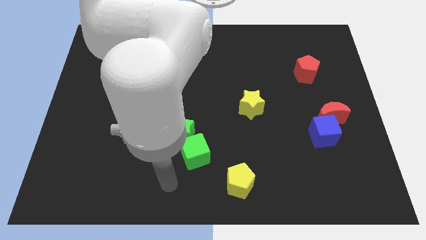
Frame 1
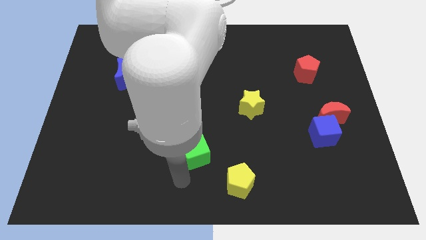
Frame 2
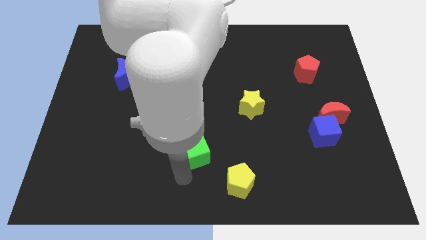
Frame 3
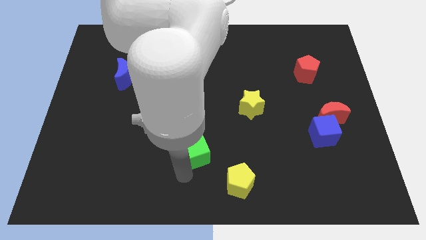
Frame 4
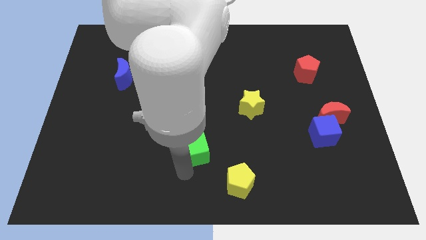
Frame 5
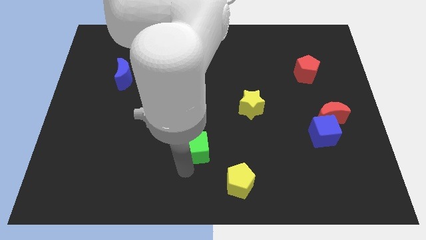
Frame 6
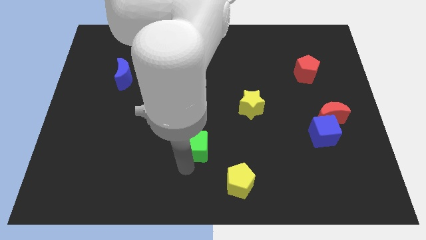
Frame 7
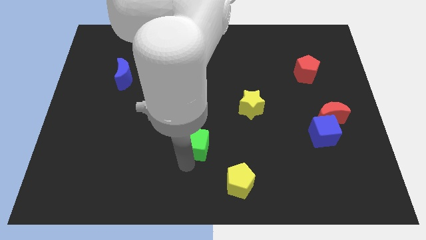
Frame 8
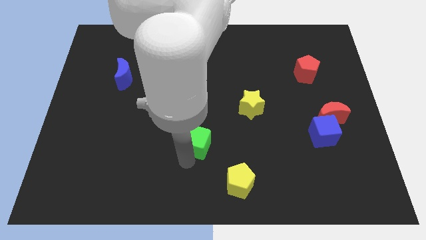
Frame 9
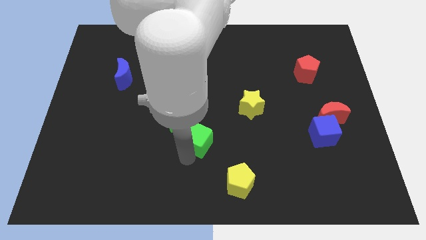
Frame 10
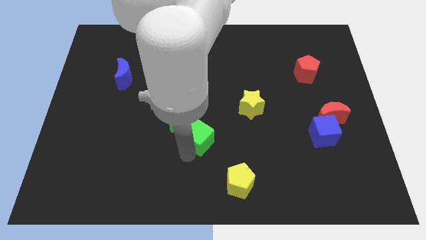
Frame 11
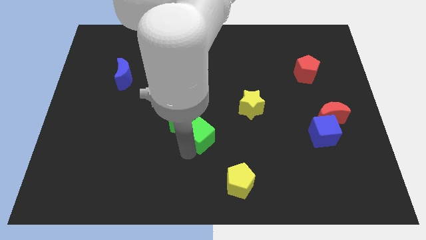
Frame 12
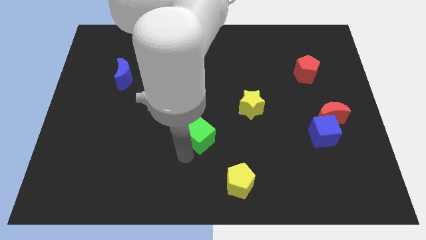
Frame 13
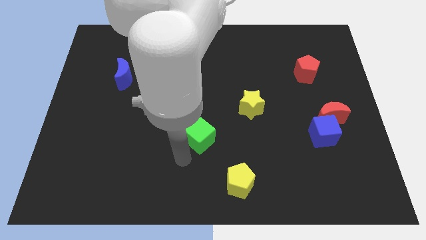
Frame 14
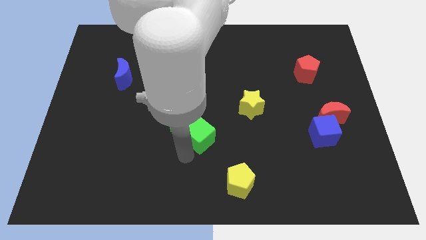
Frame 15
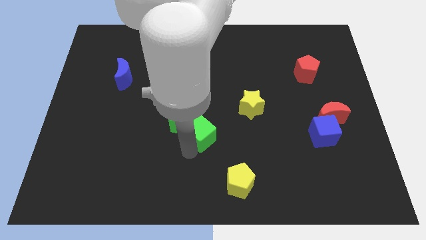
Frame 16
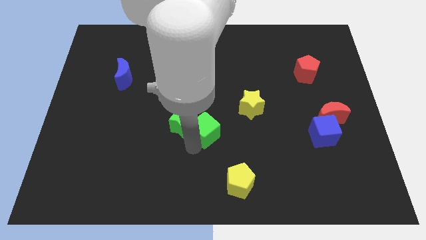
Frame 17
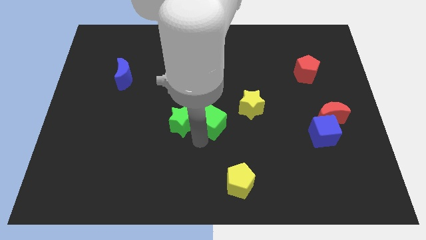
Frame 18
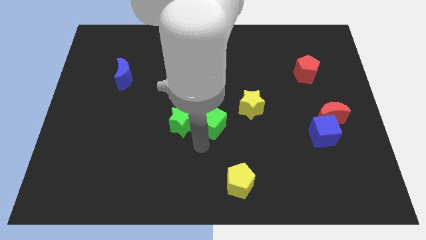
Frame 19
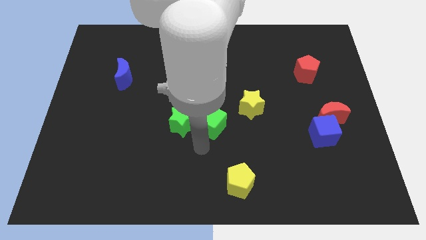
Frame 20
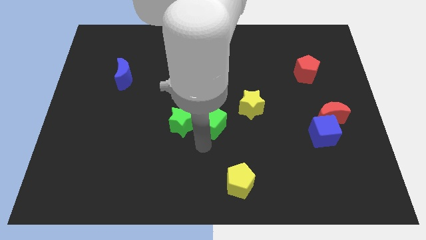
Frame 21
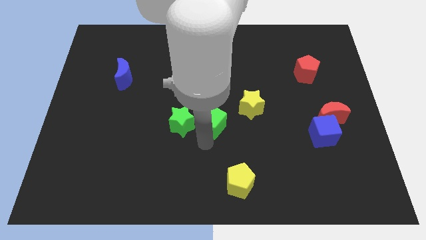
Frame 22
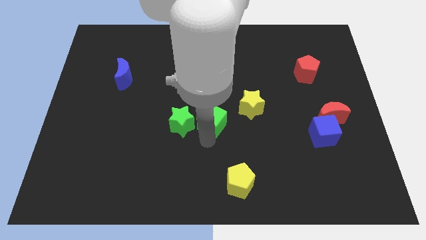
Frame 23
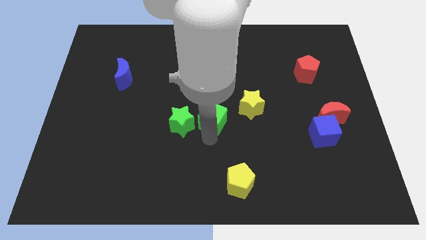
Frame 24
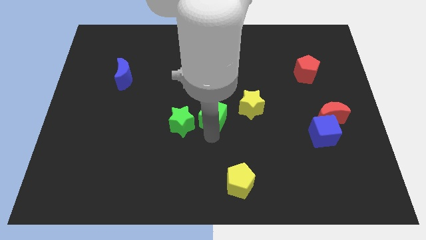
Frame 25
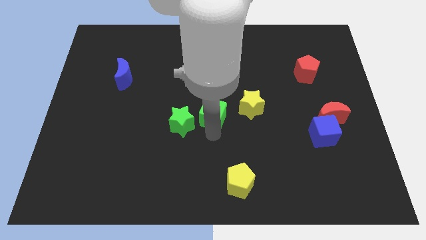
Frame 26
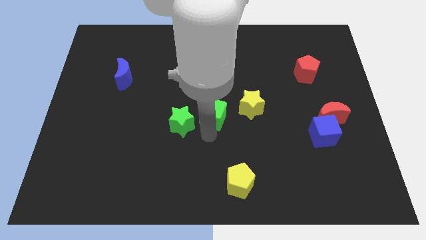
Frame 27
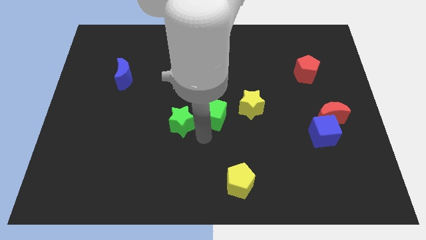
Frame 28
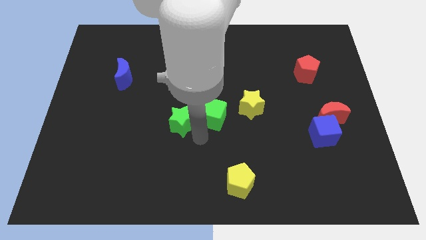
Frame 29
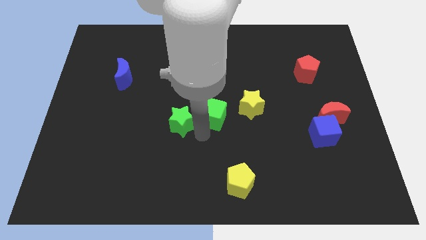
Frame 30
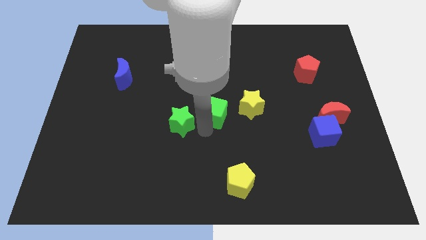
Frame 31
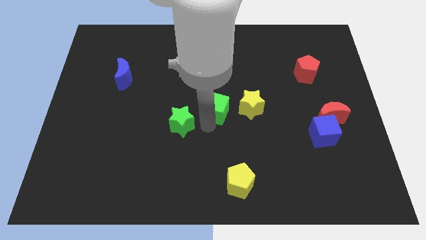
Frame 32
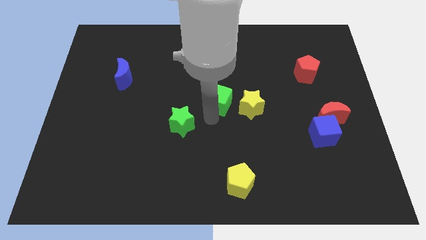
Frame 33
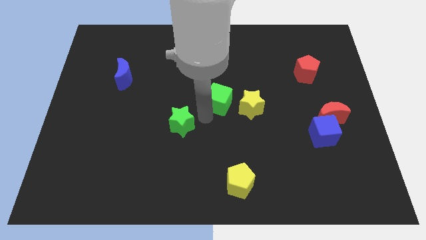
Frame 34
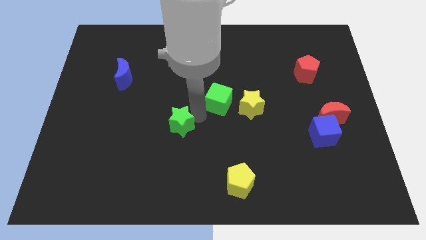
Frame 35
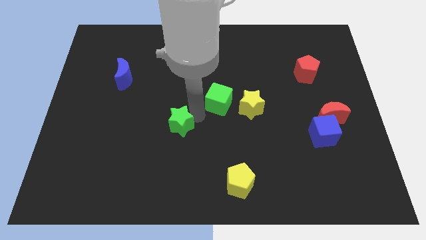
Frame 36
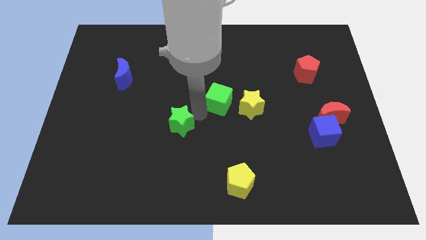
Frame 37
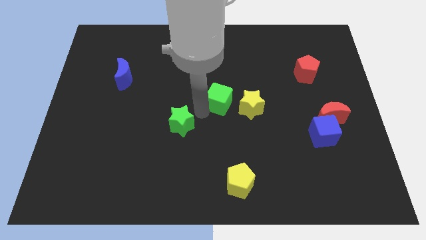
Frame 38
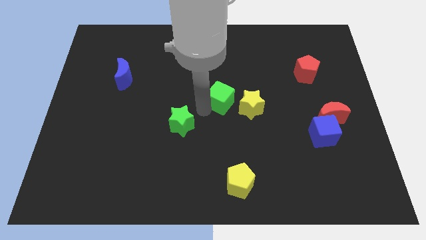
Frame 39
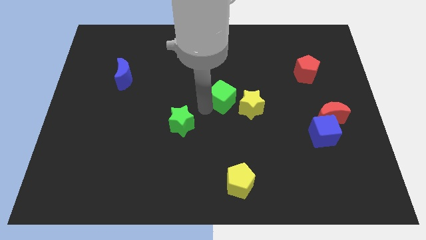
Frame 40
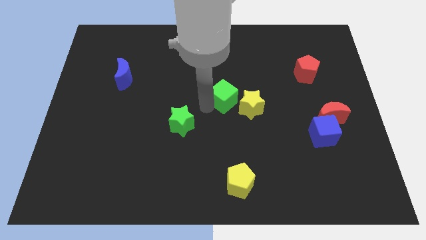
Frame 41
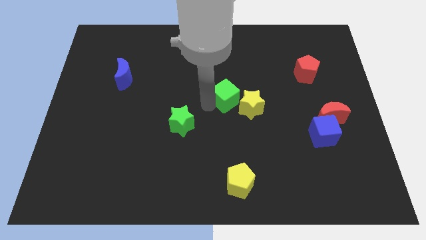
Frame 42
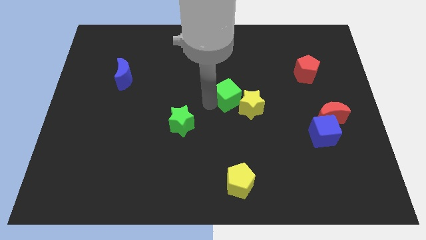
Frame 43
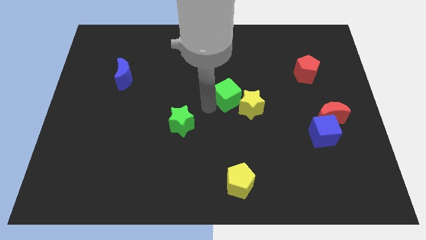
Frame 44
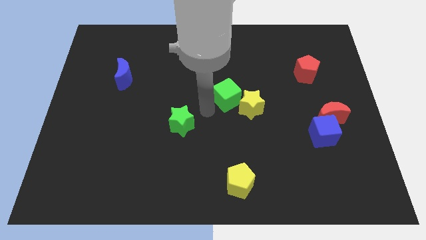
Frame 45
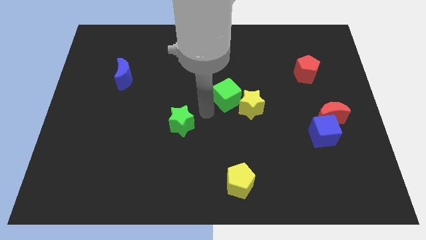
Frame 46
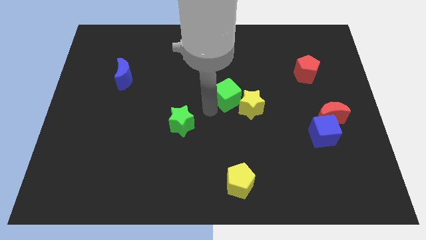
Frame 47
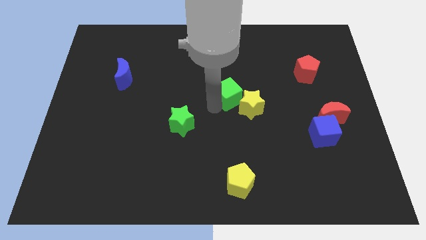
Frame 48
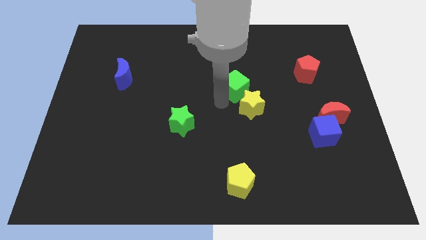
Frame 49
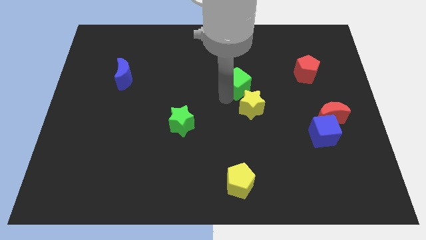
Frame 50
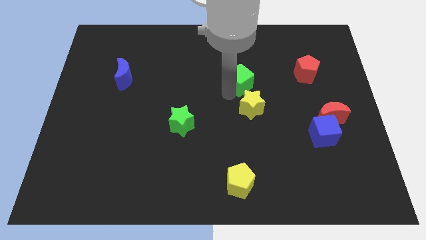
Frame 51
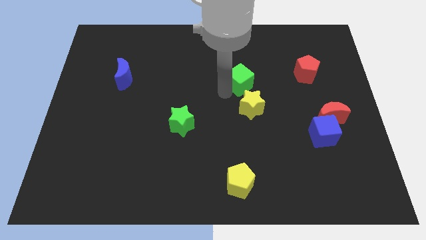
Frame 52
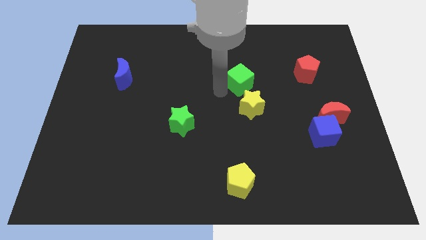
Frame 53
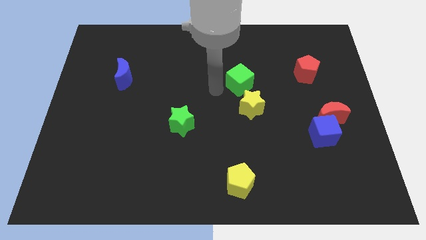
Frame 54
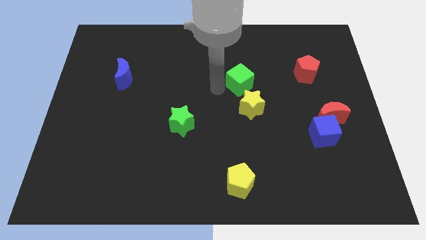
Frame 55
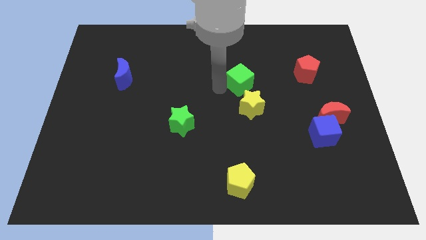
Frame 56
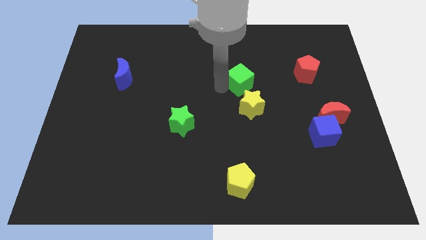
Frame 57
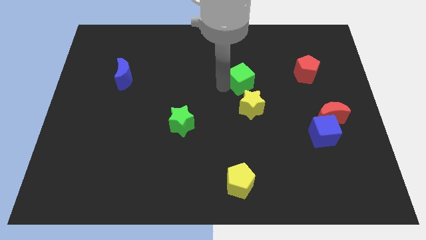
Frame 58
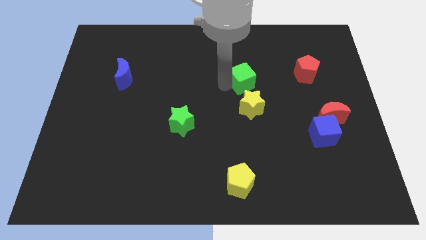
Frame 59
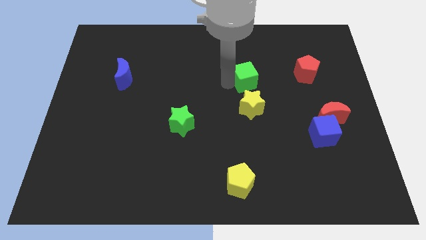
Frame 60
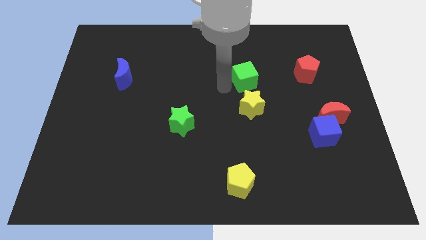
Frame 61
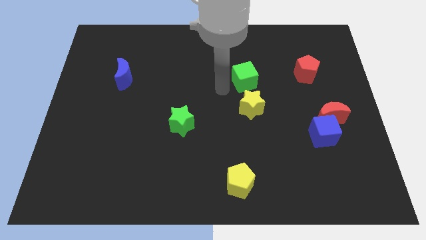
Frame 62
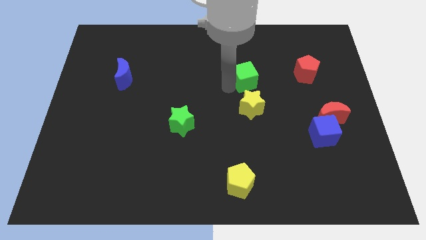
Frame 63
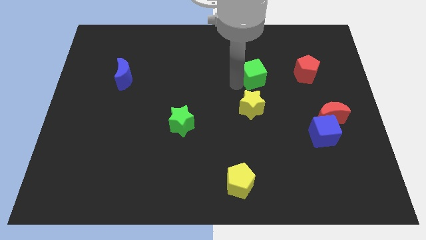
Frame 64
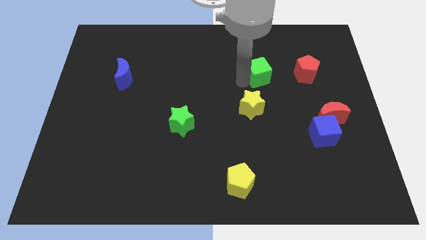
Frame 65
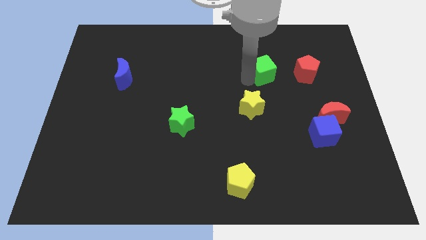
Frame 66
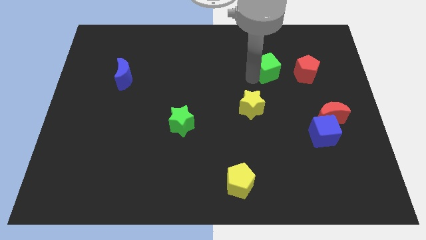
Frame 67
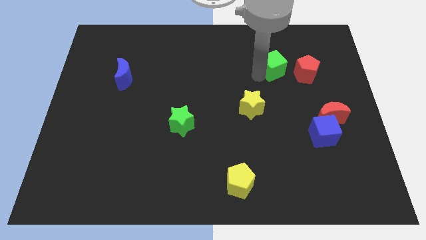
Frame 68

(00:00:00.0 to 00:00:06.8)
move the green cube to the top left of the red pentagon

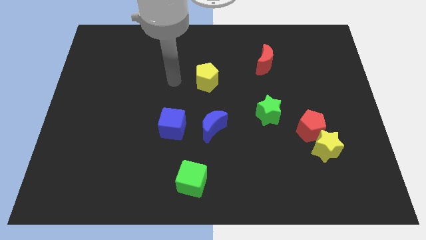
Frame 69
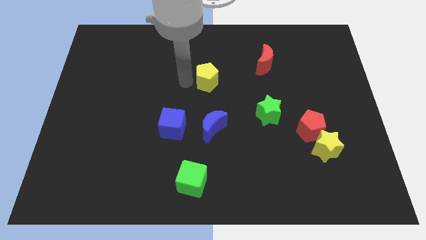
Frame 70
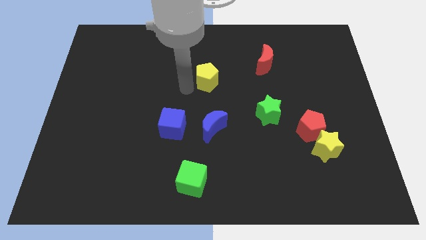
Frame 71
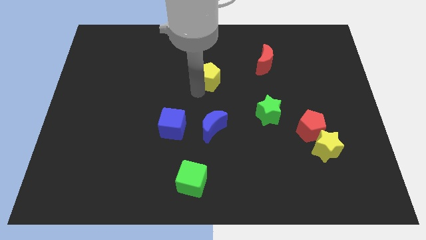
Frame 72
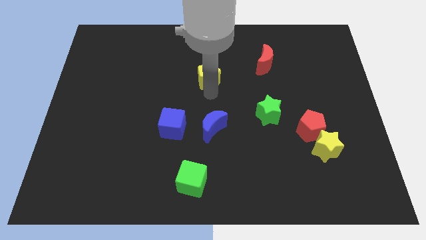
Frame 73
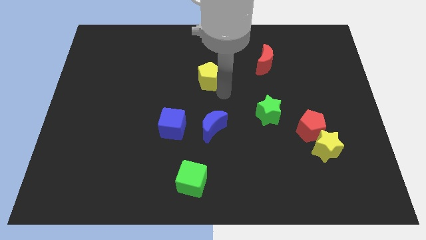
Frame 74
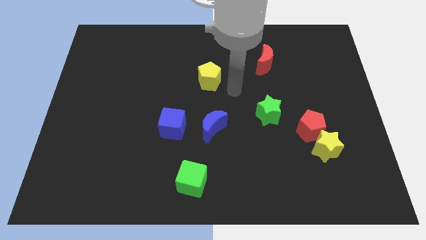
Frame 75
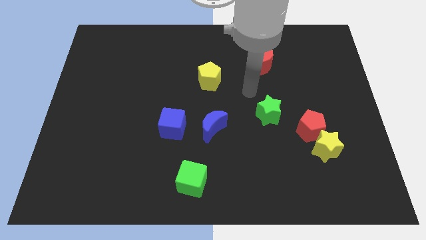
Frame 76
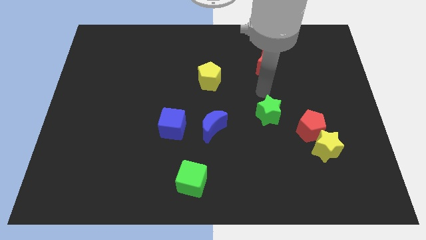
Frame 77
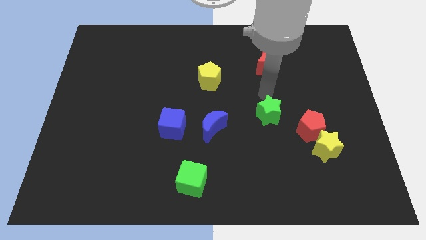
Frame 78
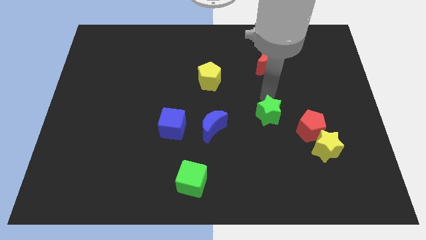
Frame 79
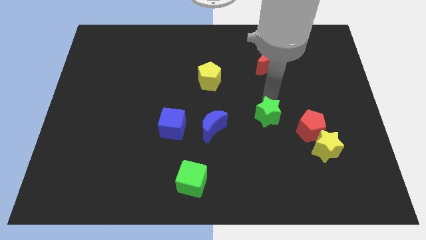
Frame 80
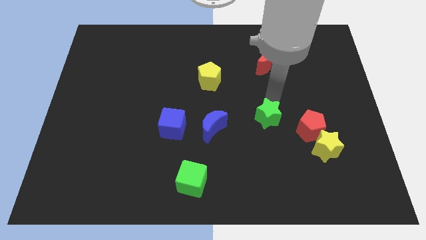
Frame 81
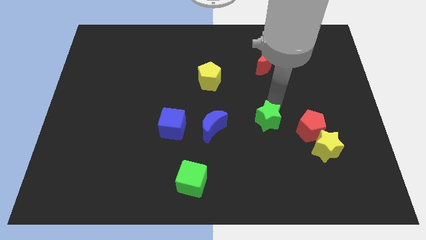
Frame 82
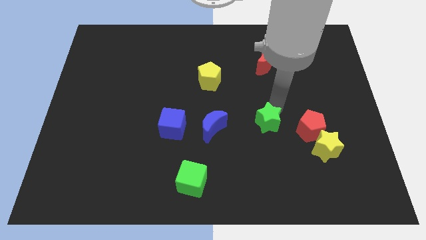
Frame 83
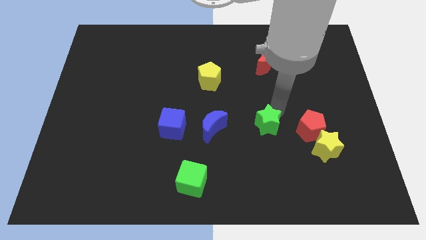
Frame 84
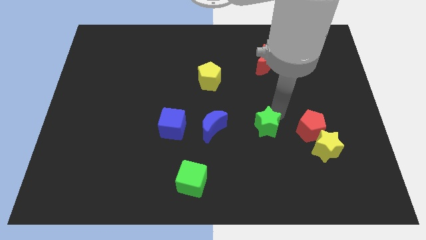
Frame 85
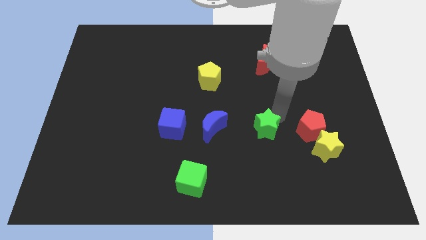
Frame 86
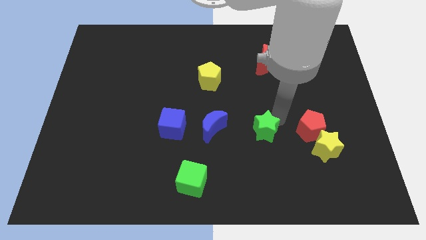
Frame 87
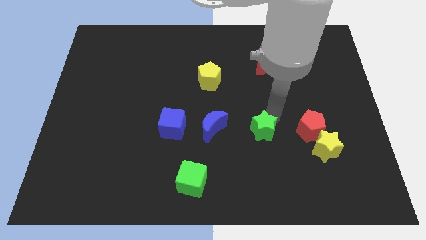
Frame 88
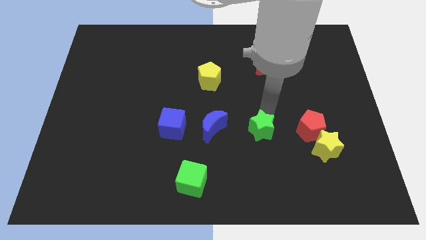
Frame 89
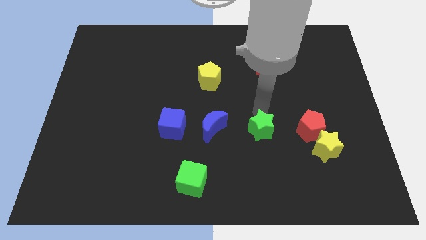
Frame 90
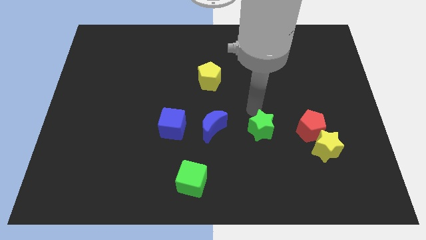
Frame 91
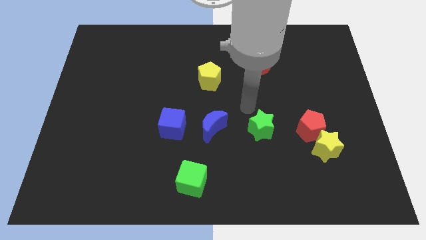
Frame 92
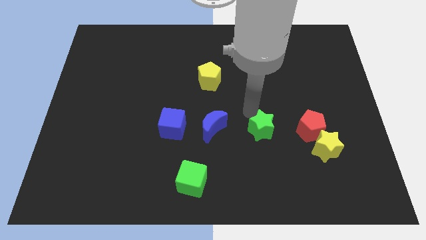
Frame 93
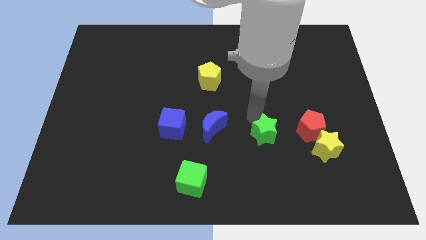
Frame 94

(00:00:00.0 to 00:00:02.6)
push the green star left of the yellow star
